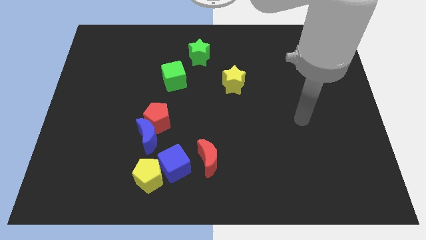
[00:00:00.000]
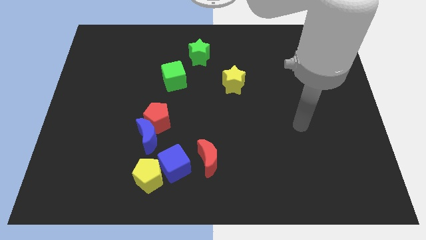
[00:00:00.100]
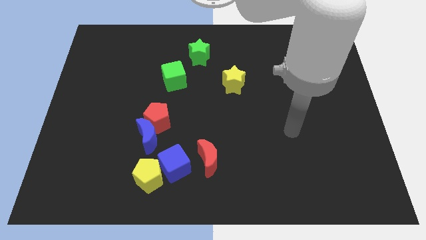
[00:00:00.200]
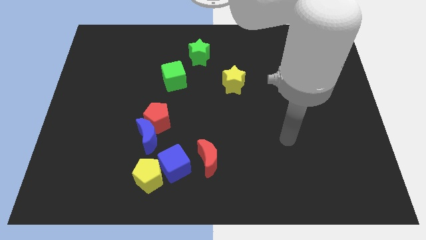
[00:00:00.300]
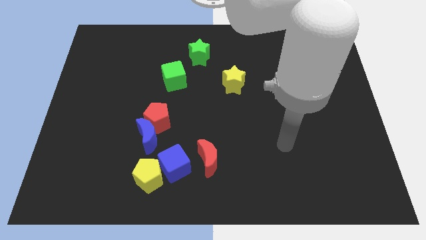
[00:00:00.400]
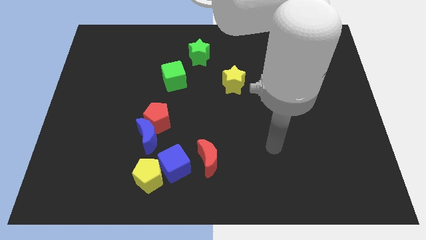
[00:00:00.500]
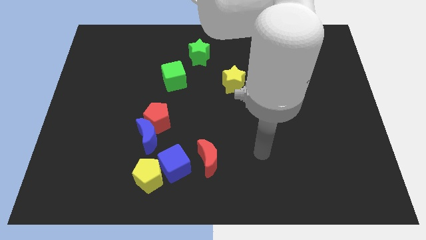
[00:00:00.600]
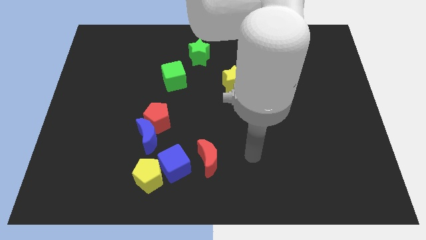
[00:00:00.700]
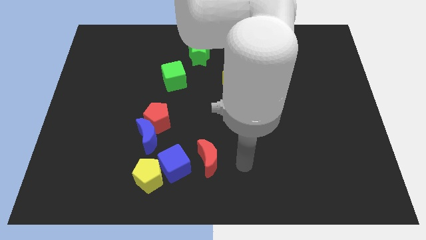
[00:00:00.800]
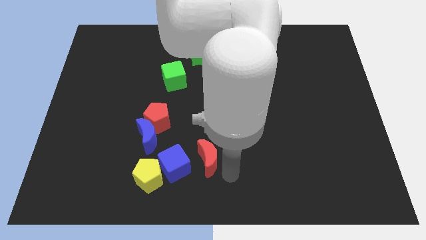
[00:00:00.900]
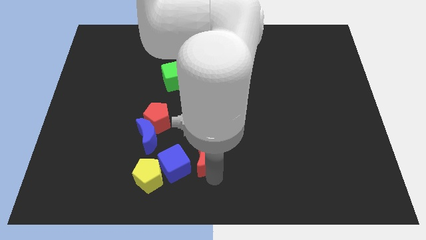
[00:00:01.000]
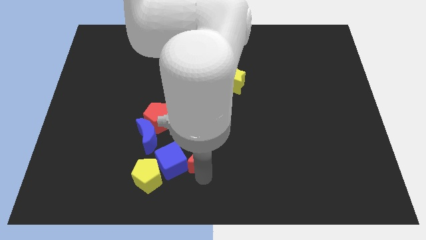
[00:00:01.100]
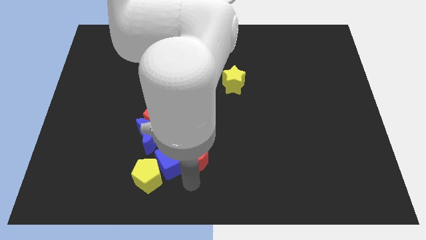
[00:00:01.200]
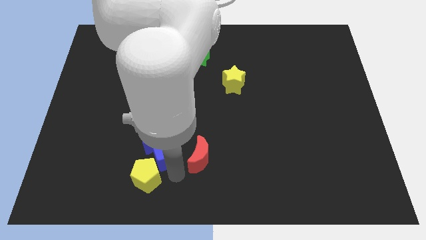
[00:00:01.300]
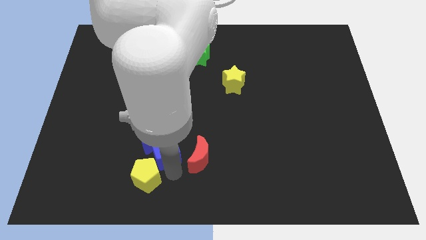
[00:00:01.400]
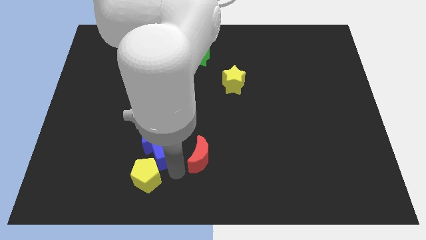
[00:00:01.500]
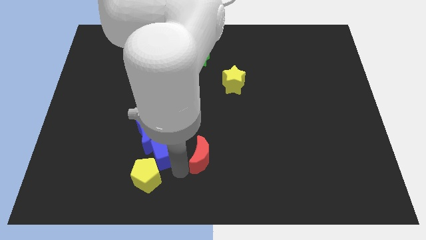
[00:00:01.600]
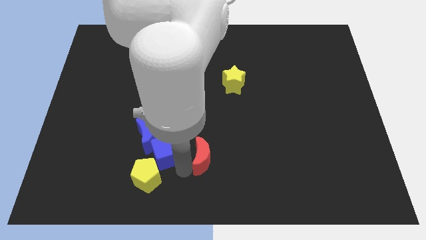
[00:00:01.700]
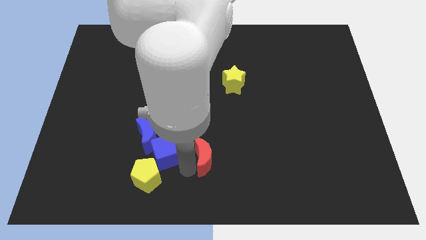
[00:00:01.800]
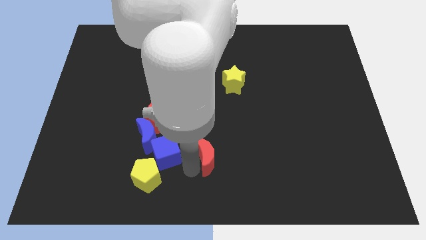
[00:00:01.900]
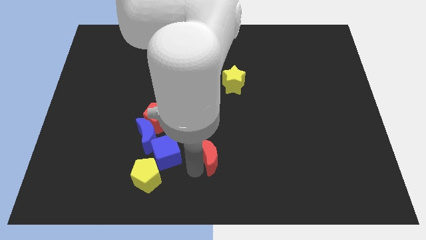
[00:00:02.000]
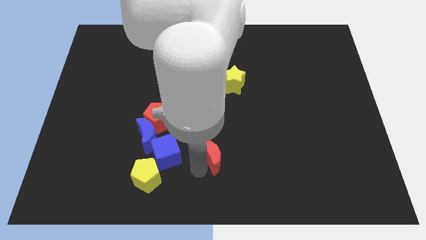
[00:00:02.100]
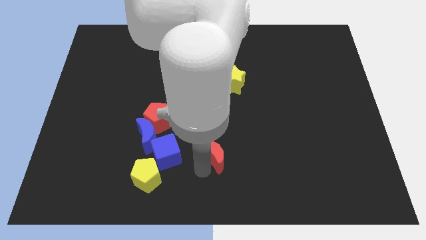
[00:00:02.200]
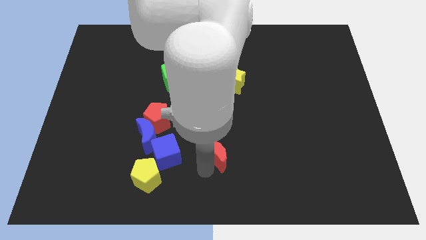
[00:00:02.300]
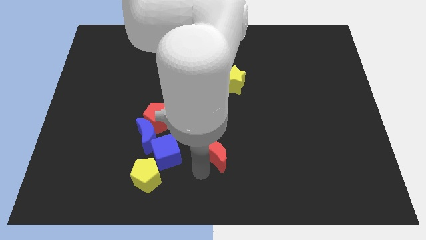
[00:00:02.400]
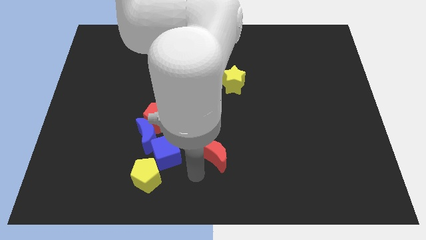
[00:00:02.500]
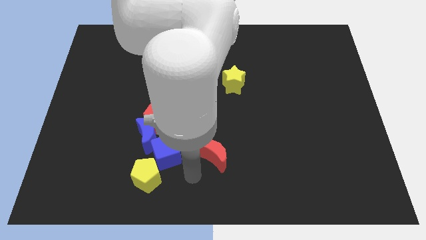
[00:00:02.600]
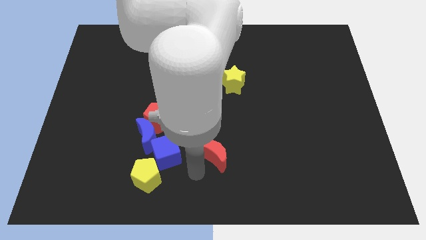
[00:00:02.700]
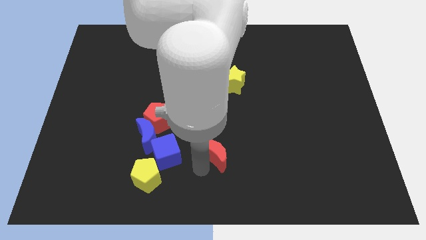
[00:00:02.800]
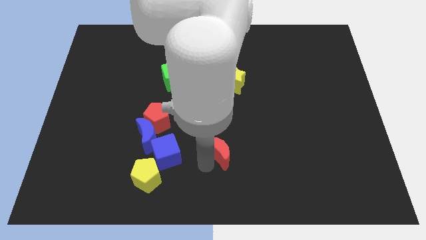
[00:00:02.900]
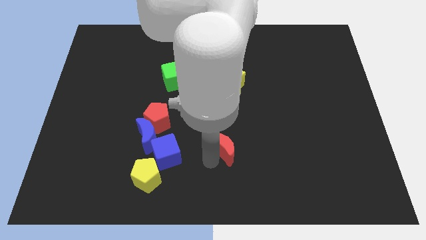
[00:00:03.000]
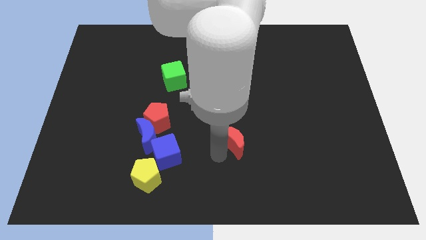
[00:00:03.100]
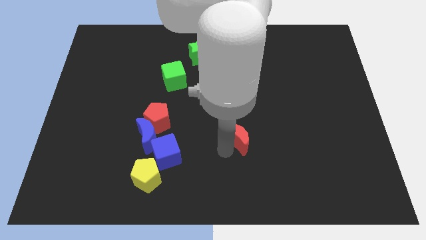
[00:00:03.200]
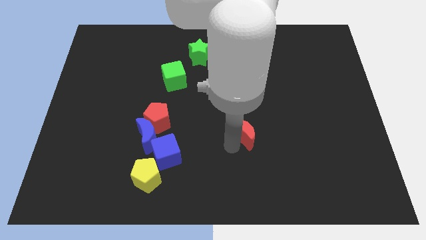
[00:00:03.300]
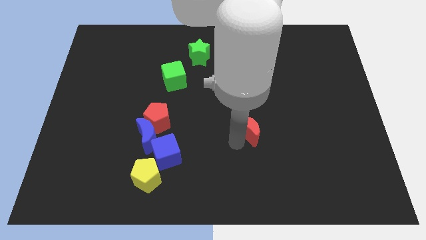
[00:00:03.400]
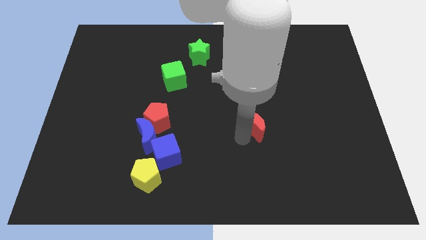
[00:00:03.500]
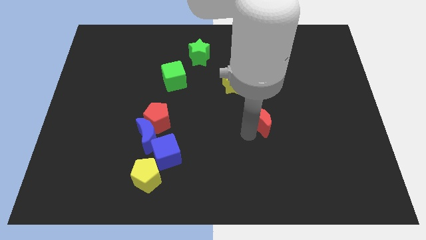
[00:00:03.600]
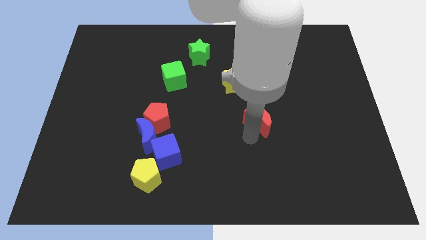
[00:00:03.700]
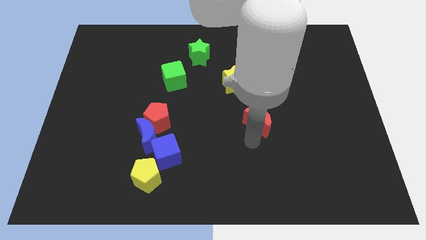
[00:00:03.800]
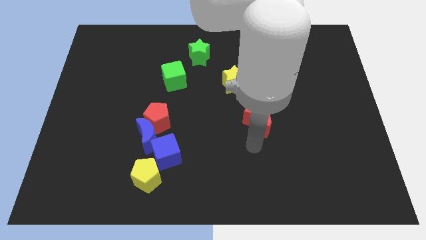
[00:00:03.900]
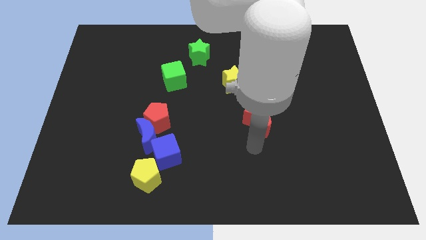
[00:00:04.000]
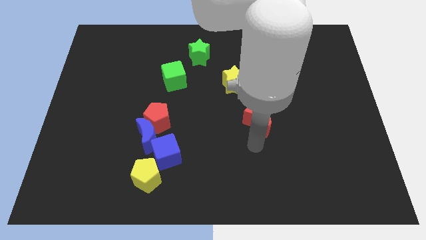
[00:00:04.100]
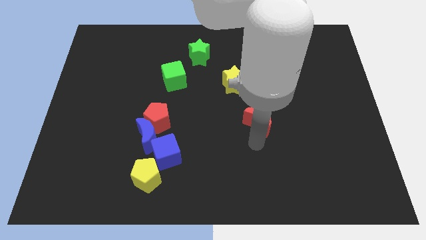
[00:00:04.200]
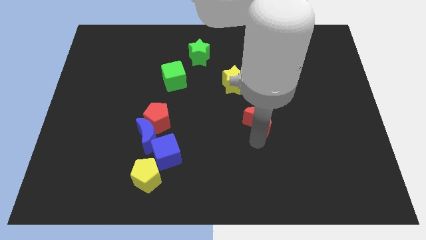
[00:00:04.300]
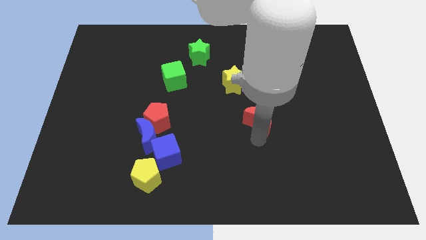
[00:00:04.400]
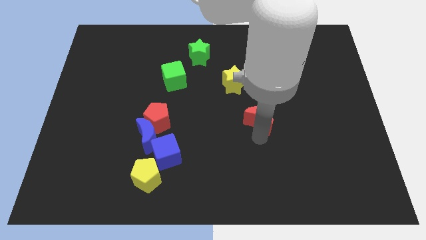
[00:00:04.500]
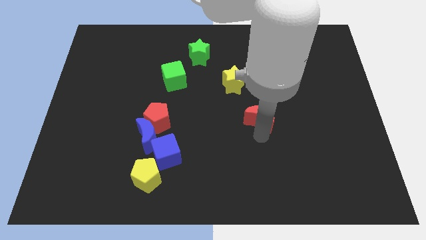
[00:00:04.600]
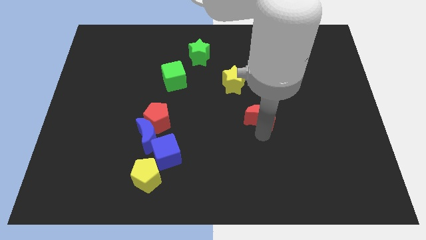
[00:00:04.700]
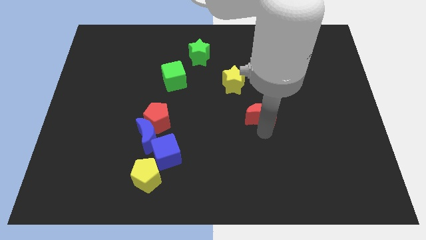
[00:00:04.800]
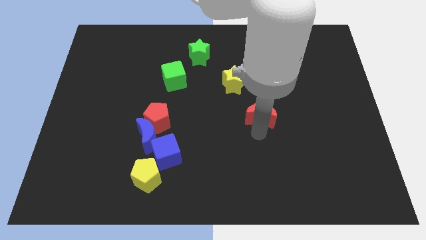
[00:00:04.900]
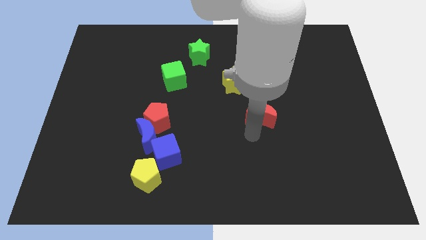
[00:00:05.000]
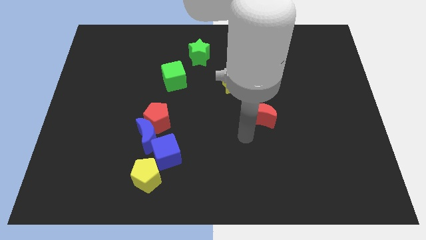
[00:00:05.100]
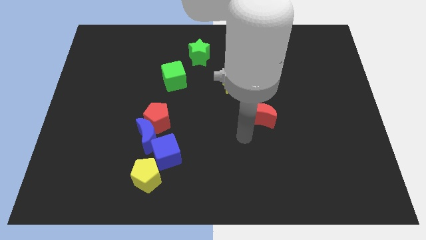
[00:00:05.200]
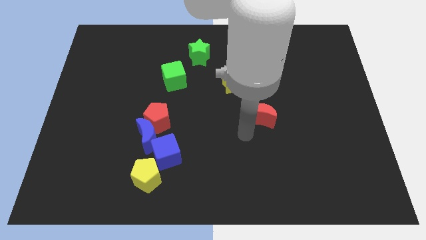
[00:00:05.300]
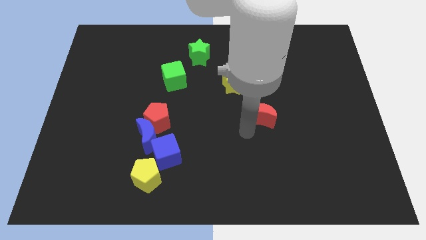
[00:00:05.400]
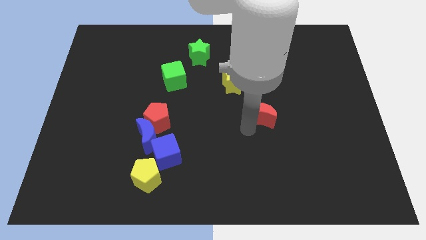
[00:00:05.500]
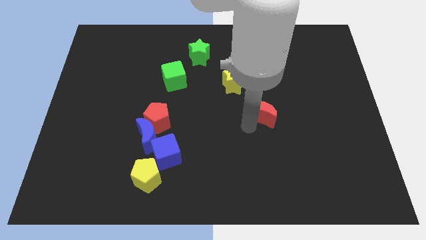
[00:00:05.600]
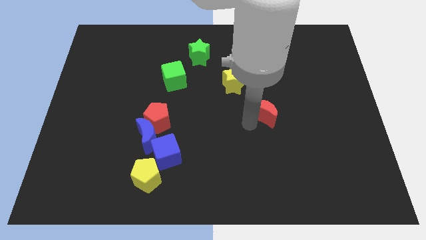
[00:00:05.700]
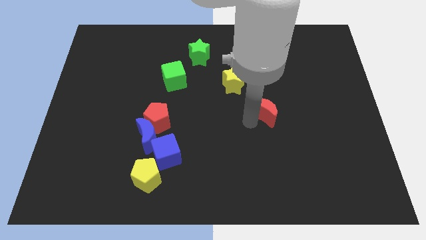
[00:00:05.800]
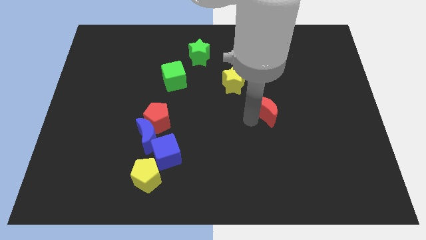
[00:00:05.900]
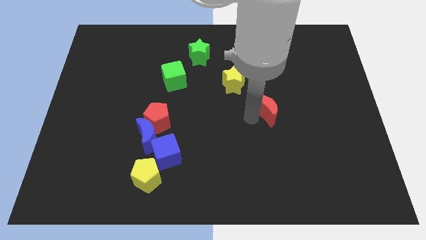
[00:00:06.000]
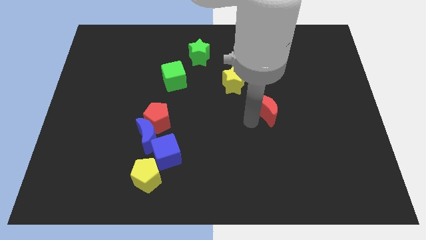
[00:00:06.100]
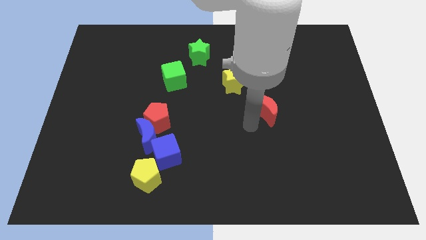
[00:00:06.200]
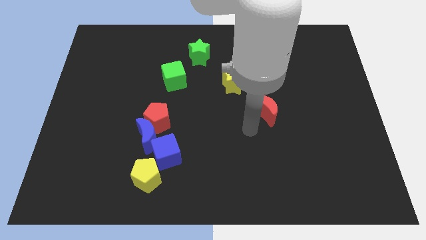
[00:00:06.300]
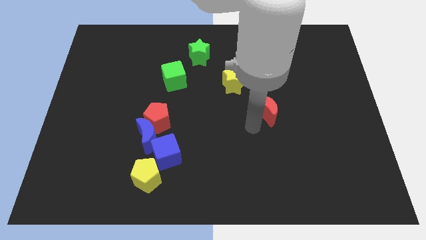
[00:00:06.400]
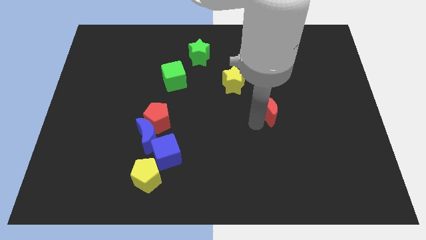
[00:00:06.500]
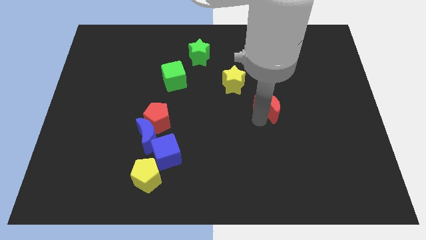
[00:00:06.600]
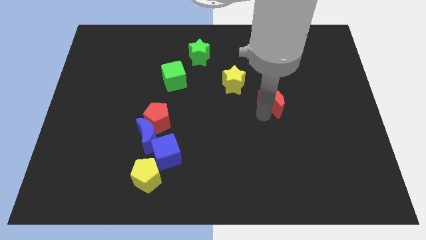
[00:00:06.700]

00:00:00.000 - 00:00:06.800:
move the red moon upwards and to the right diagonally

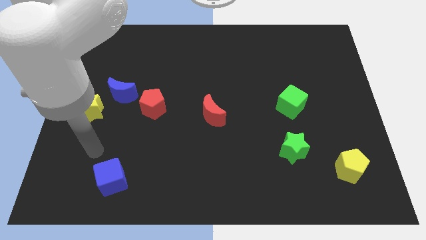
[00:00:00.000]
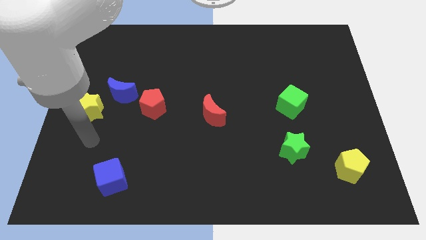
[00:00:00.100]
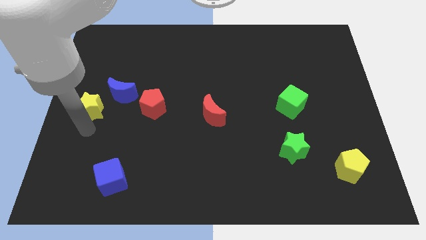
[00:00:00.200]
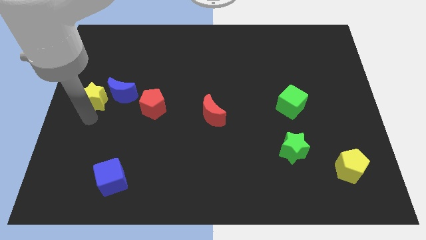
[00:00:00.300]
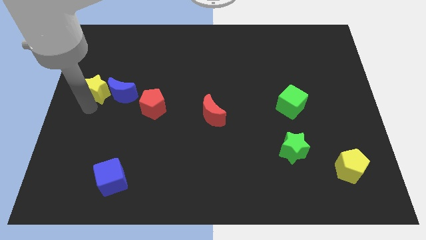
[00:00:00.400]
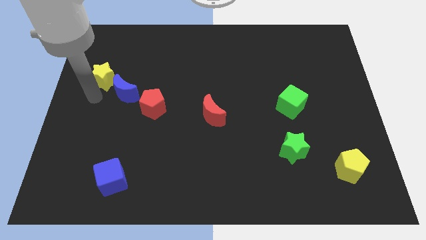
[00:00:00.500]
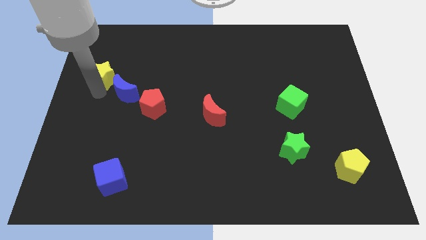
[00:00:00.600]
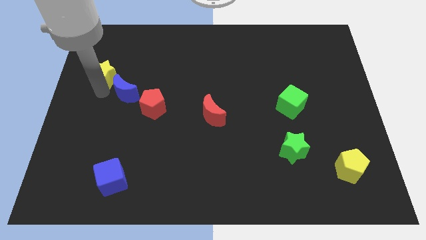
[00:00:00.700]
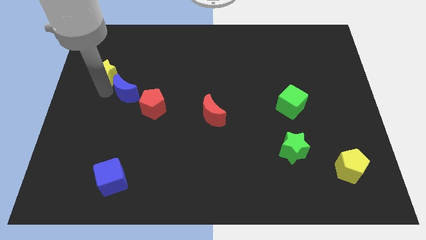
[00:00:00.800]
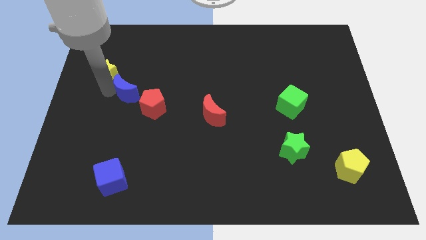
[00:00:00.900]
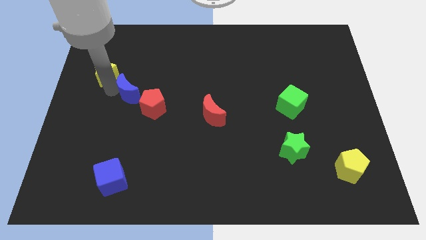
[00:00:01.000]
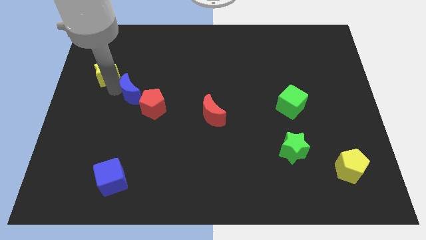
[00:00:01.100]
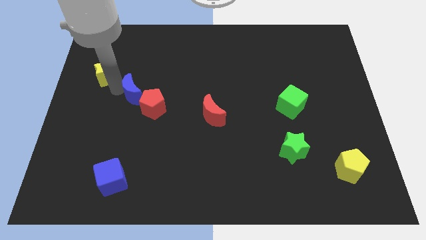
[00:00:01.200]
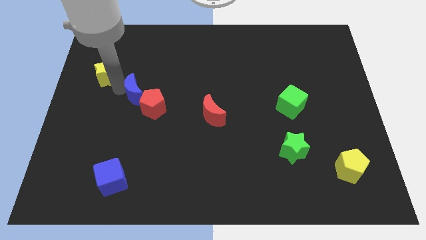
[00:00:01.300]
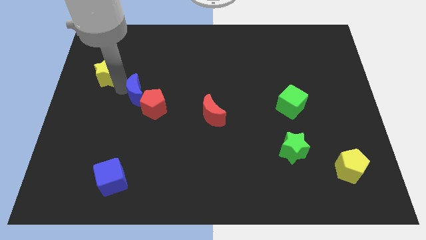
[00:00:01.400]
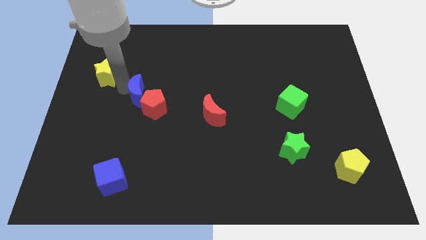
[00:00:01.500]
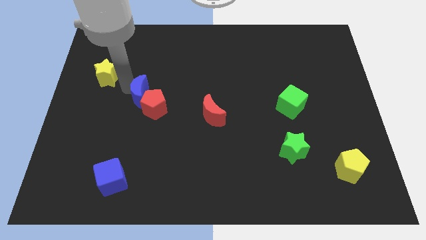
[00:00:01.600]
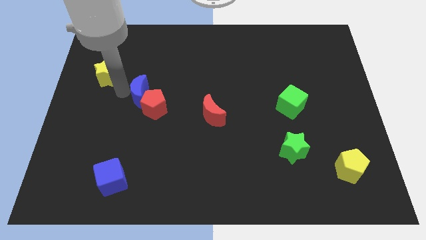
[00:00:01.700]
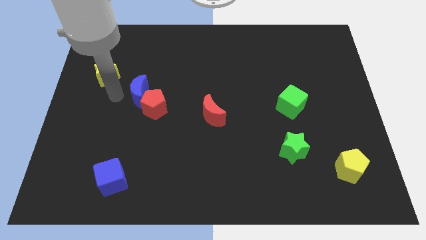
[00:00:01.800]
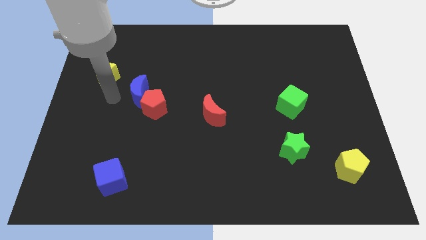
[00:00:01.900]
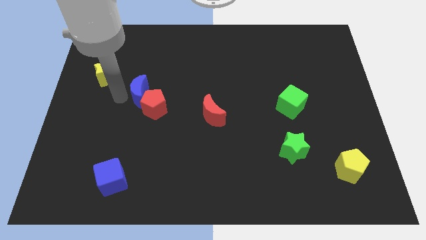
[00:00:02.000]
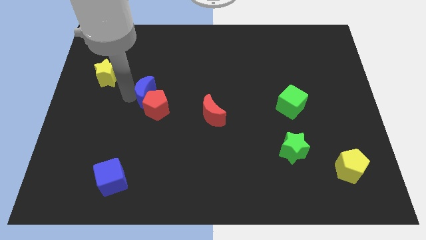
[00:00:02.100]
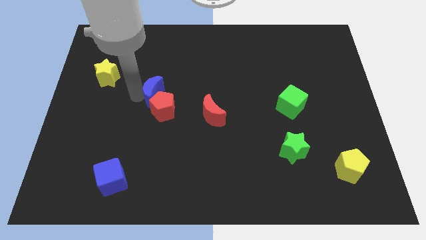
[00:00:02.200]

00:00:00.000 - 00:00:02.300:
push the blue moon a little right
